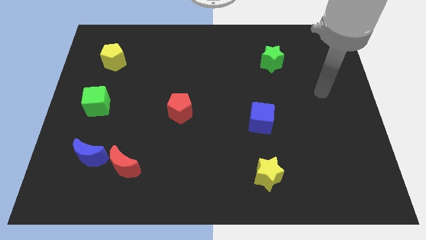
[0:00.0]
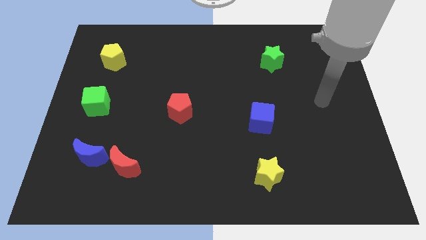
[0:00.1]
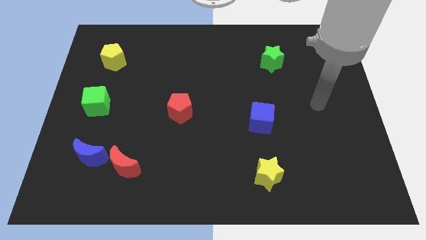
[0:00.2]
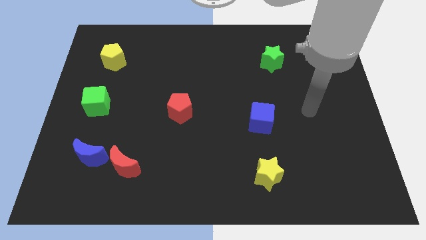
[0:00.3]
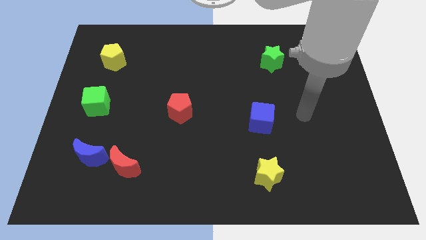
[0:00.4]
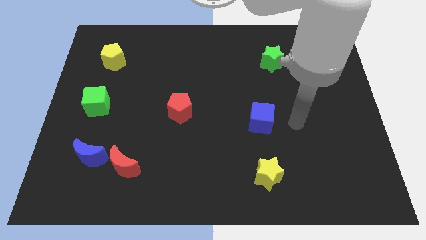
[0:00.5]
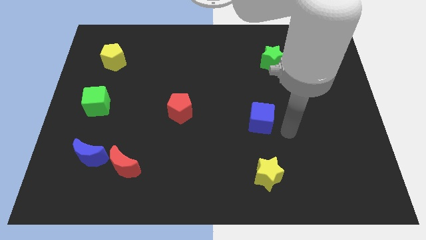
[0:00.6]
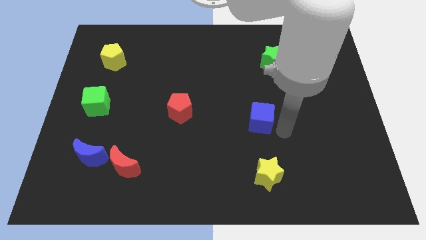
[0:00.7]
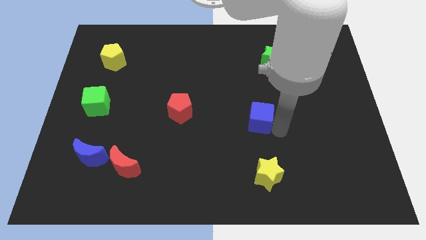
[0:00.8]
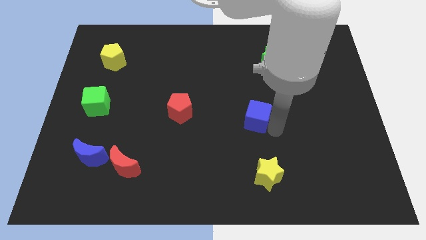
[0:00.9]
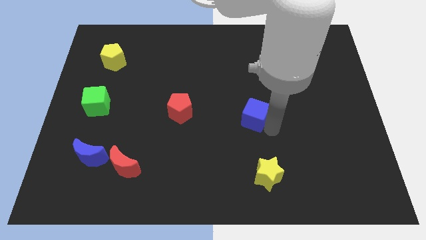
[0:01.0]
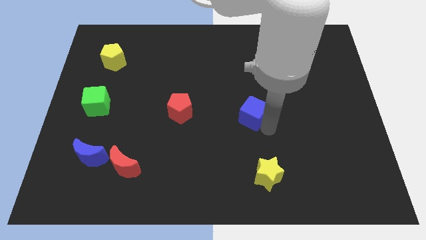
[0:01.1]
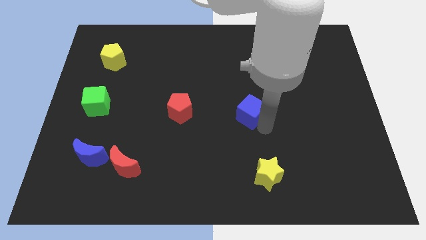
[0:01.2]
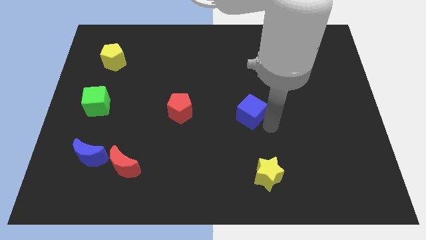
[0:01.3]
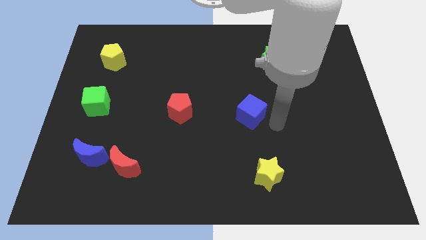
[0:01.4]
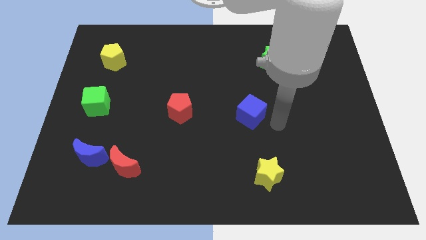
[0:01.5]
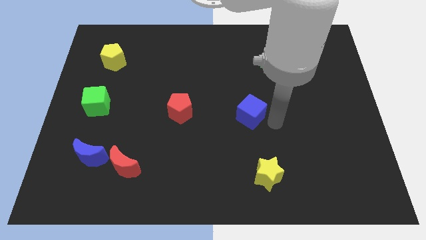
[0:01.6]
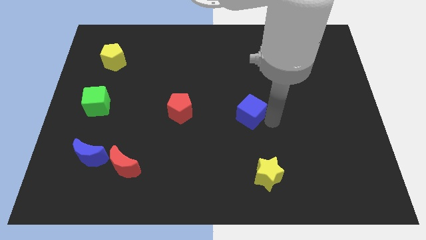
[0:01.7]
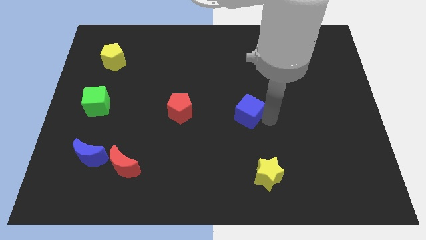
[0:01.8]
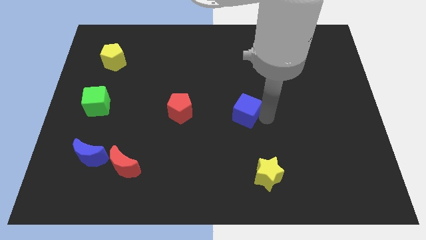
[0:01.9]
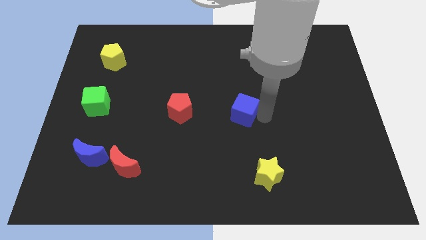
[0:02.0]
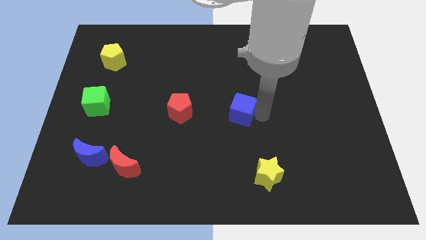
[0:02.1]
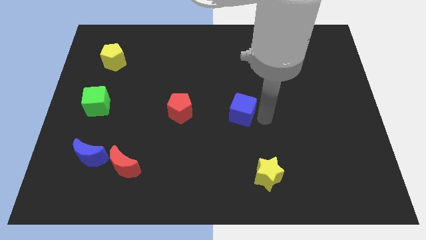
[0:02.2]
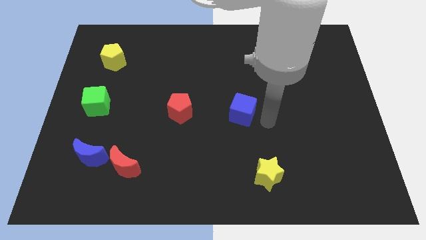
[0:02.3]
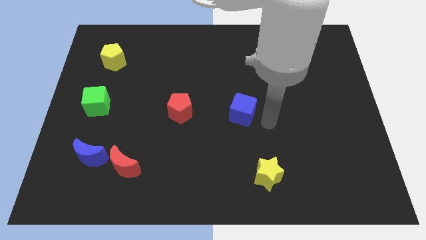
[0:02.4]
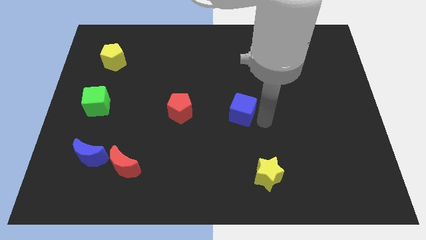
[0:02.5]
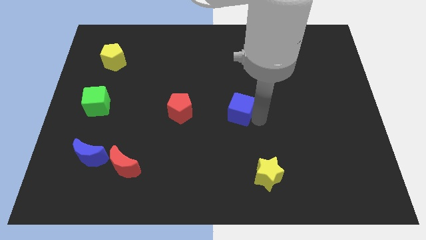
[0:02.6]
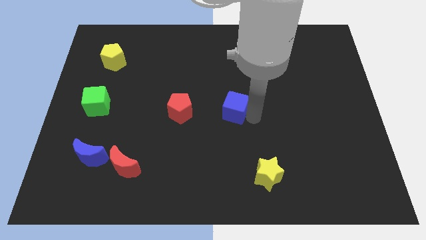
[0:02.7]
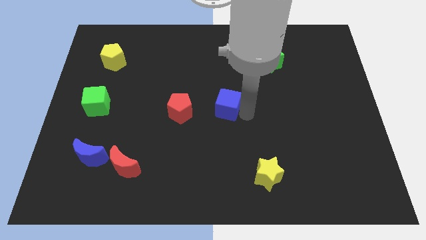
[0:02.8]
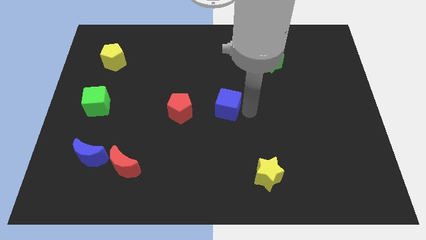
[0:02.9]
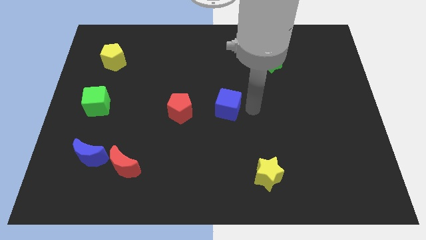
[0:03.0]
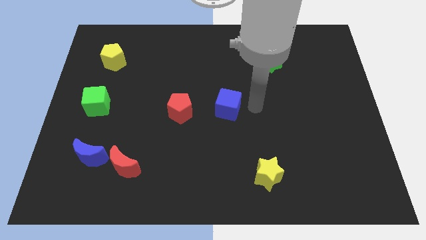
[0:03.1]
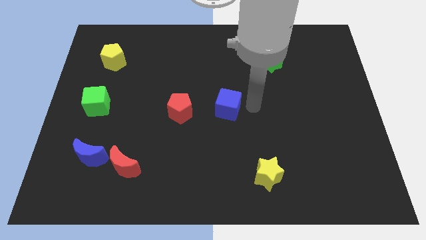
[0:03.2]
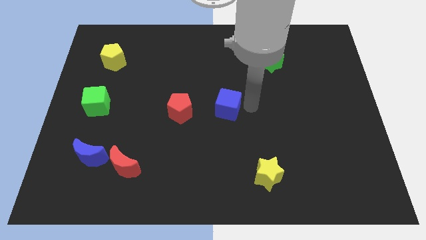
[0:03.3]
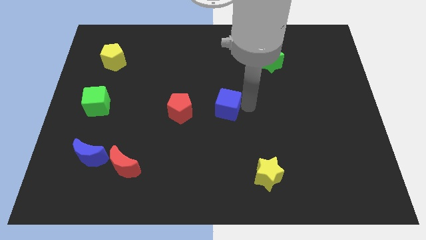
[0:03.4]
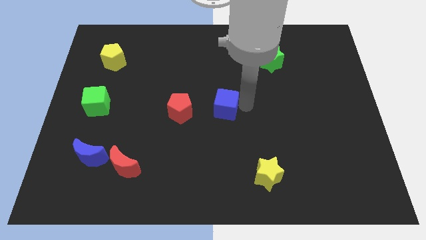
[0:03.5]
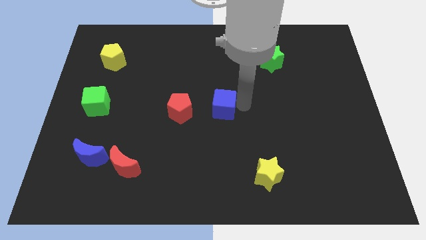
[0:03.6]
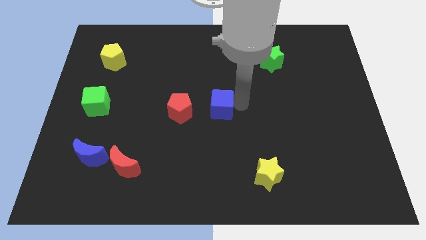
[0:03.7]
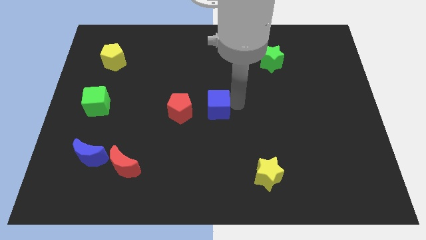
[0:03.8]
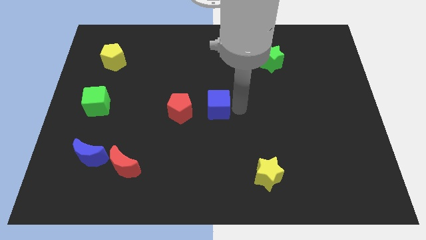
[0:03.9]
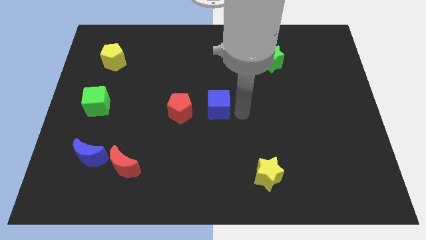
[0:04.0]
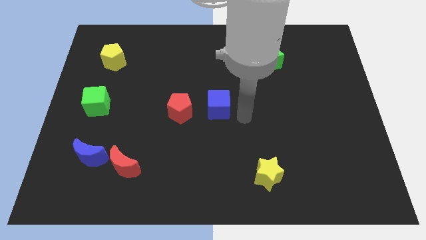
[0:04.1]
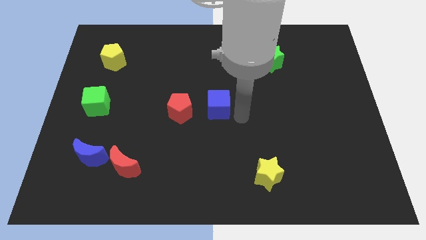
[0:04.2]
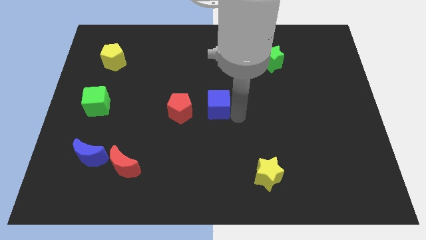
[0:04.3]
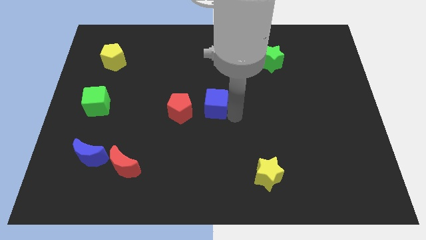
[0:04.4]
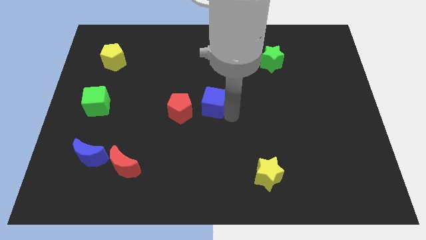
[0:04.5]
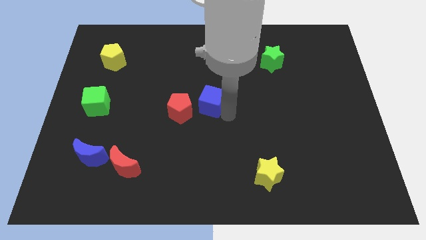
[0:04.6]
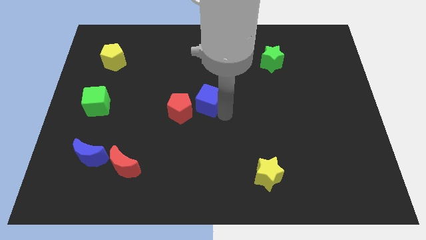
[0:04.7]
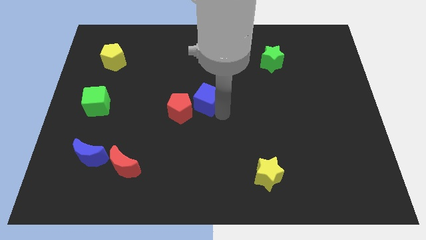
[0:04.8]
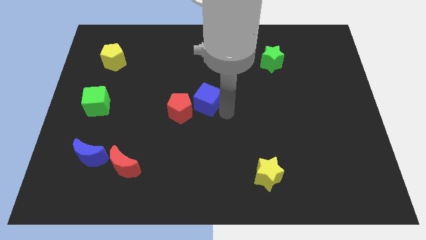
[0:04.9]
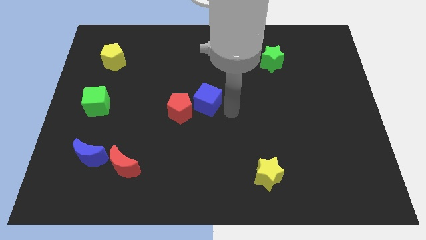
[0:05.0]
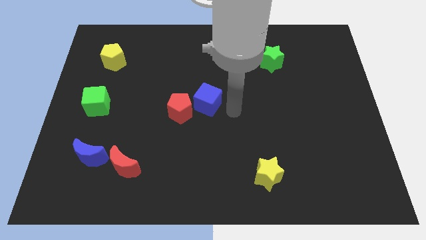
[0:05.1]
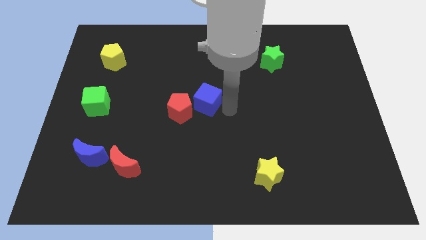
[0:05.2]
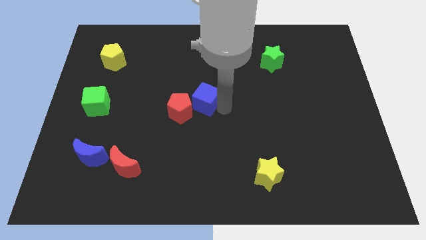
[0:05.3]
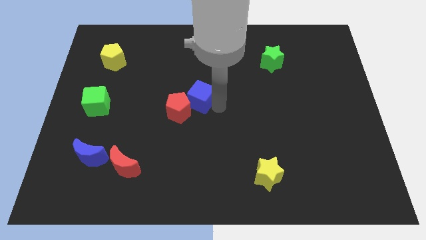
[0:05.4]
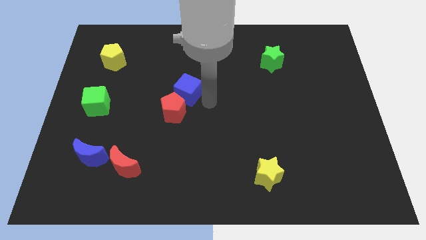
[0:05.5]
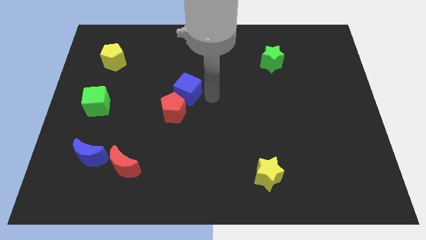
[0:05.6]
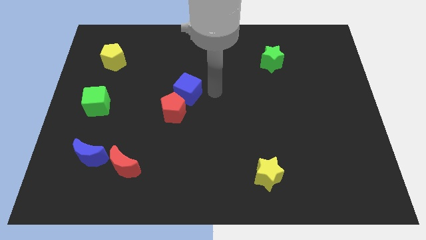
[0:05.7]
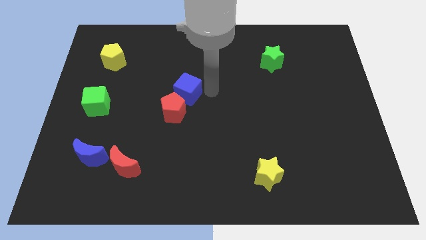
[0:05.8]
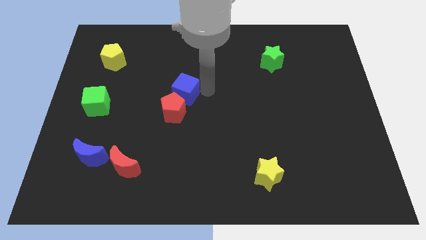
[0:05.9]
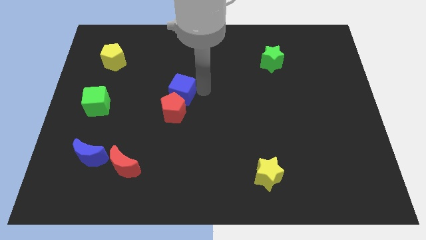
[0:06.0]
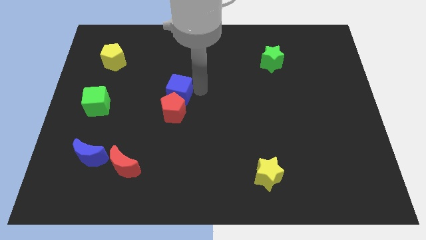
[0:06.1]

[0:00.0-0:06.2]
move the blue cube diagonally up and to the left of the red pentagon

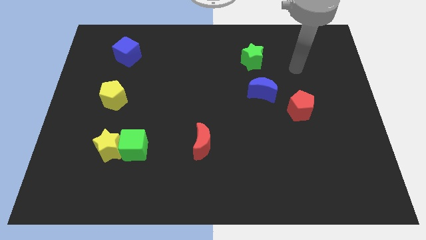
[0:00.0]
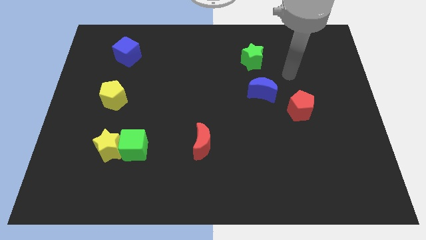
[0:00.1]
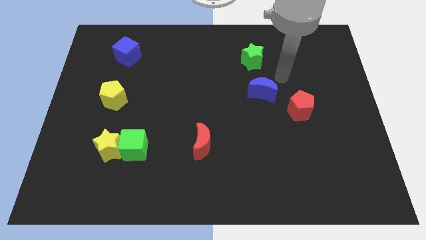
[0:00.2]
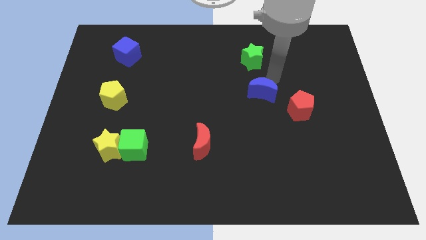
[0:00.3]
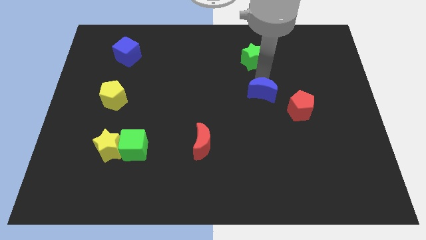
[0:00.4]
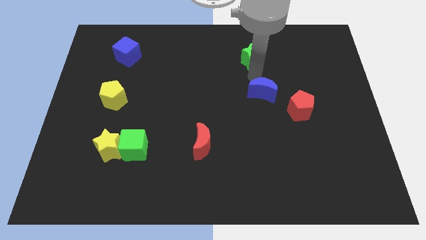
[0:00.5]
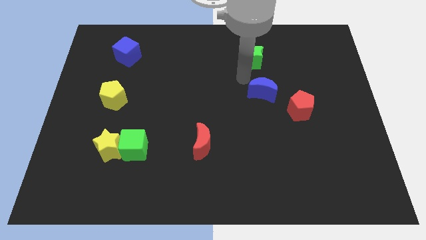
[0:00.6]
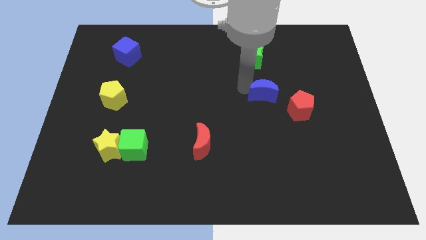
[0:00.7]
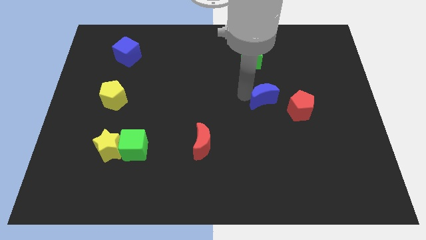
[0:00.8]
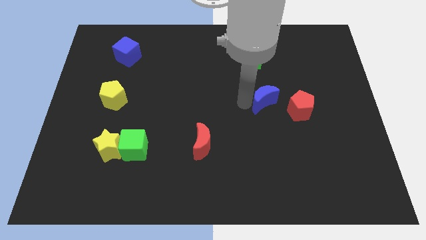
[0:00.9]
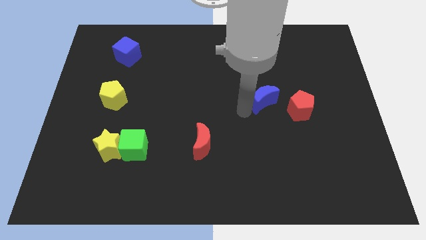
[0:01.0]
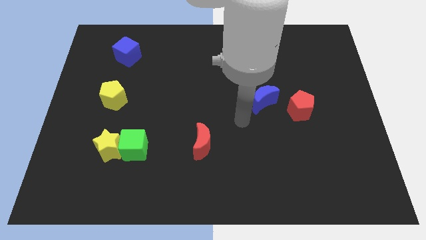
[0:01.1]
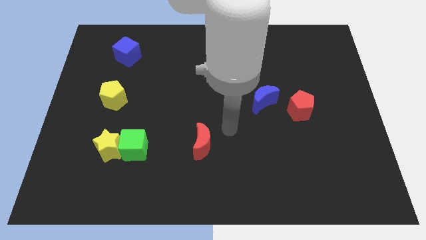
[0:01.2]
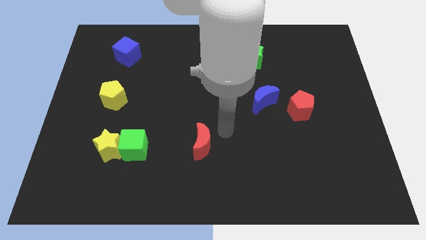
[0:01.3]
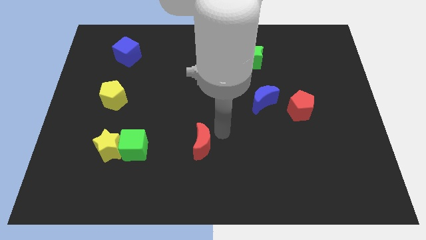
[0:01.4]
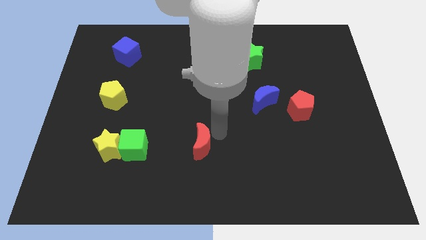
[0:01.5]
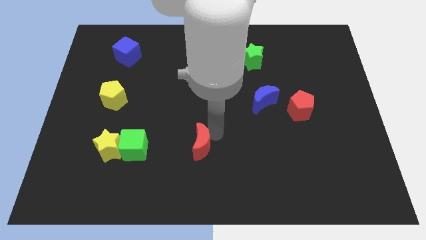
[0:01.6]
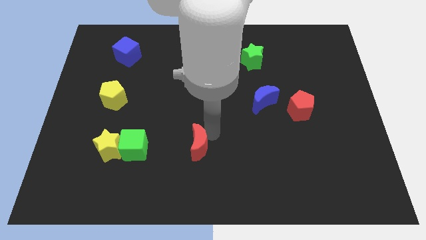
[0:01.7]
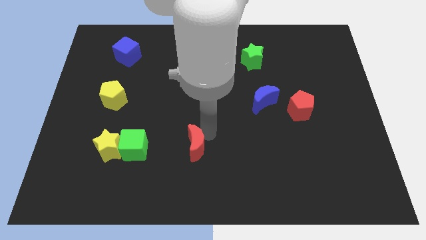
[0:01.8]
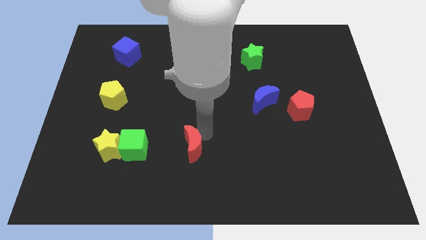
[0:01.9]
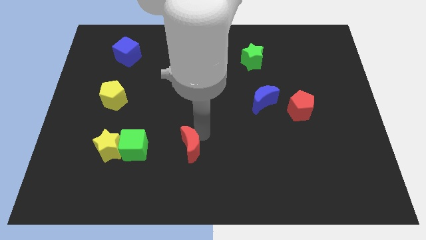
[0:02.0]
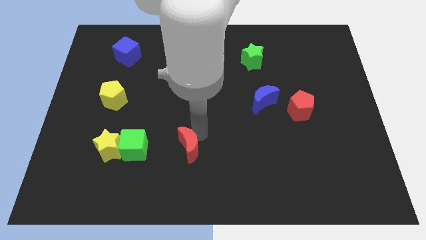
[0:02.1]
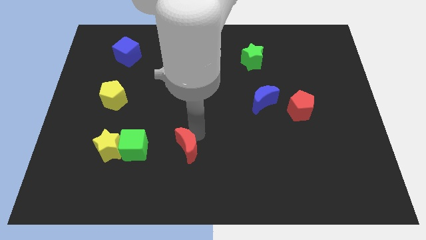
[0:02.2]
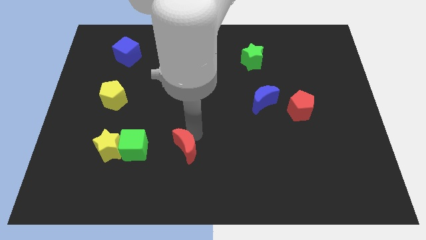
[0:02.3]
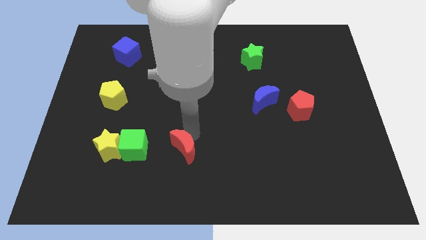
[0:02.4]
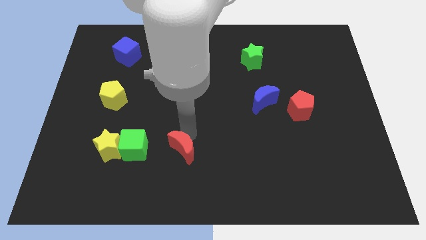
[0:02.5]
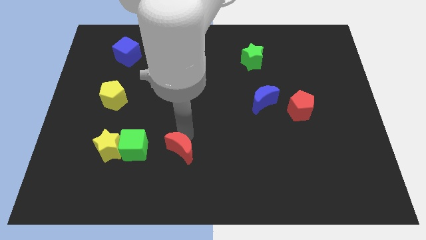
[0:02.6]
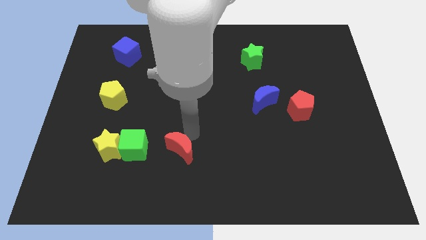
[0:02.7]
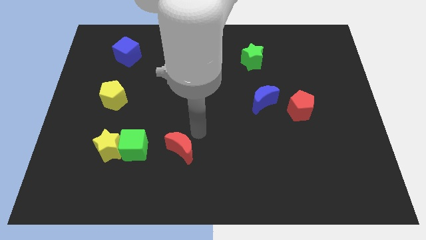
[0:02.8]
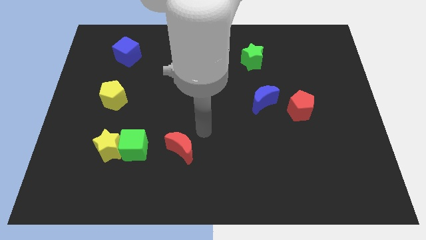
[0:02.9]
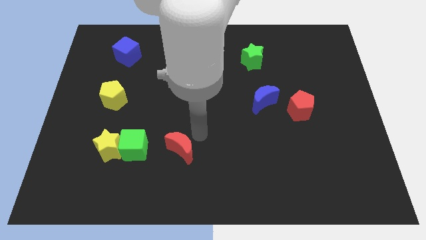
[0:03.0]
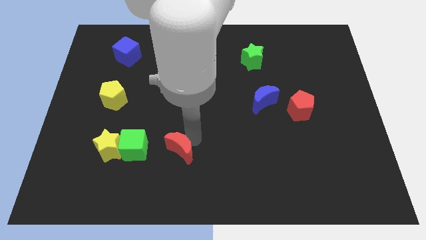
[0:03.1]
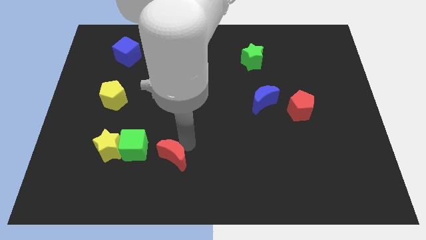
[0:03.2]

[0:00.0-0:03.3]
move the red moon to the bottom right side of the green cube
